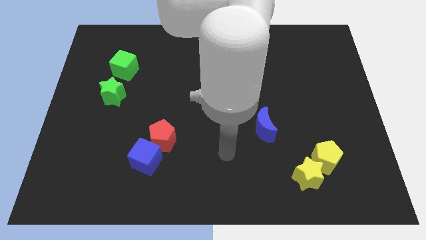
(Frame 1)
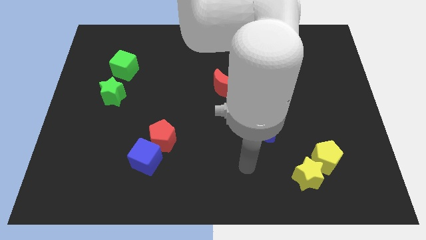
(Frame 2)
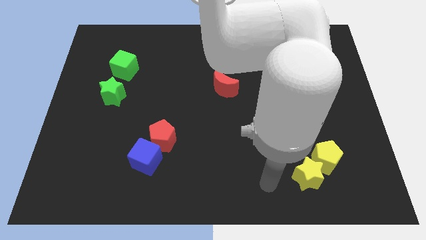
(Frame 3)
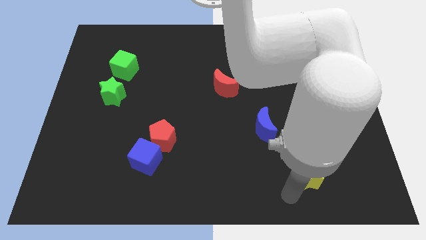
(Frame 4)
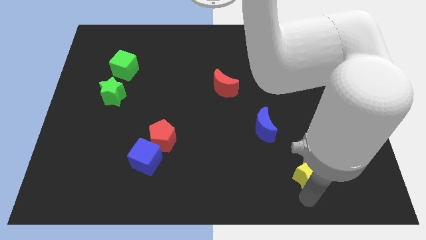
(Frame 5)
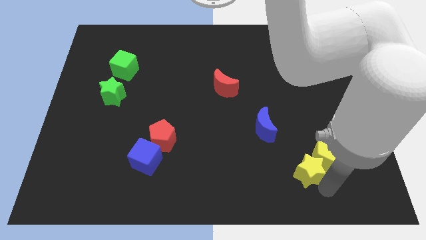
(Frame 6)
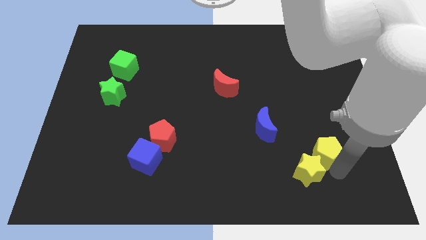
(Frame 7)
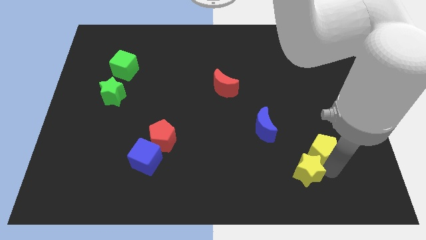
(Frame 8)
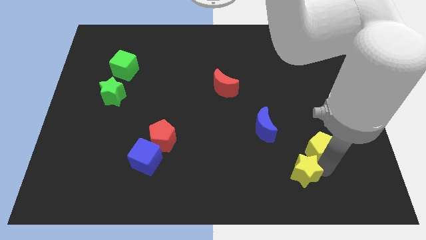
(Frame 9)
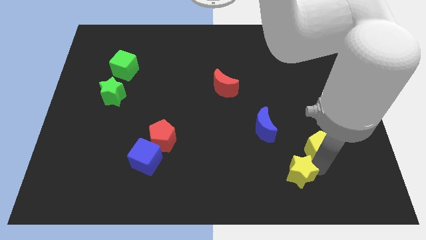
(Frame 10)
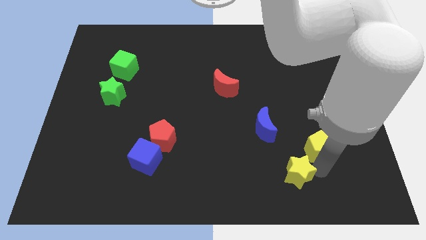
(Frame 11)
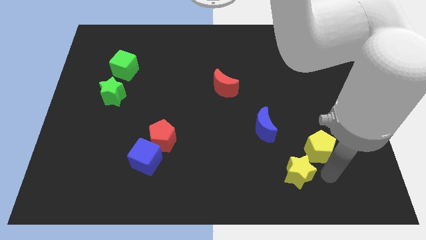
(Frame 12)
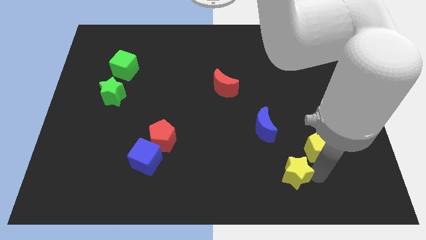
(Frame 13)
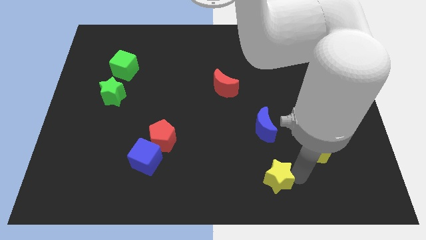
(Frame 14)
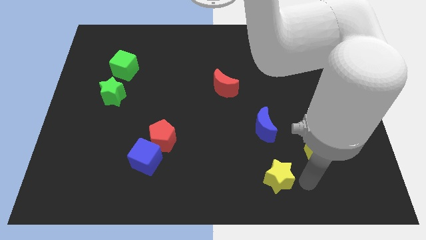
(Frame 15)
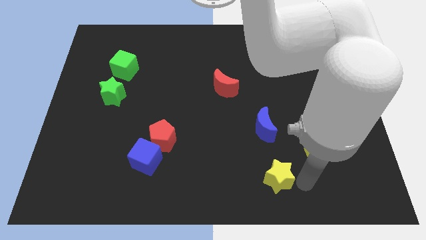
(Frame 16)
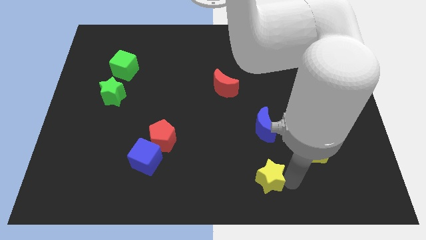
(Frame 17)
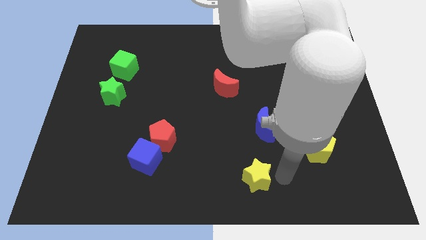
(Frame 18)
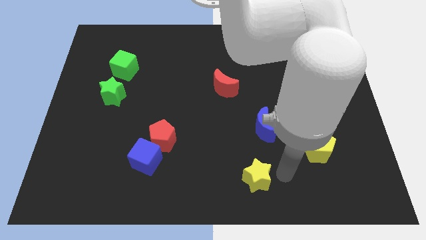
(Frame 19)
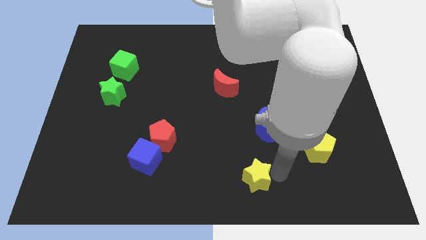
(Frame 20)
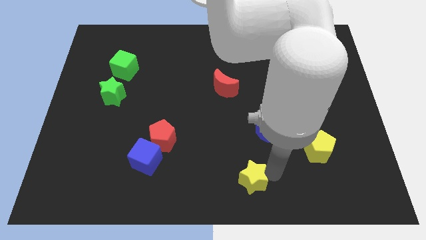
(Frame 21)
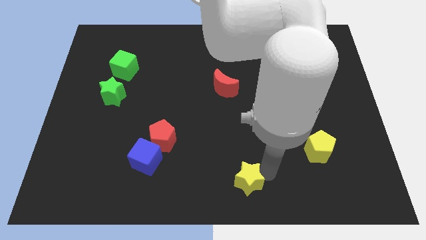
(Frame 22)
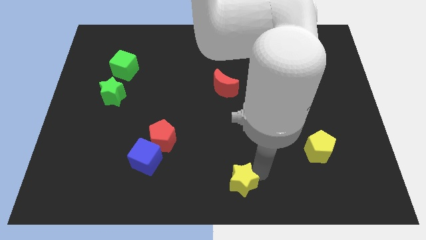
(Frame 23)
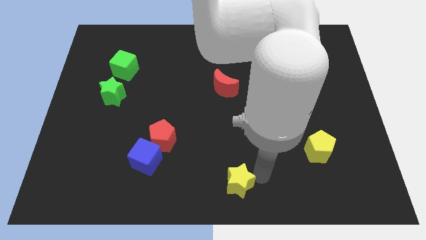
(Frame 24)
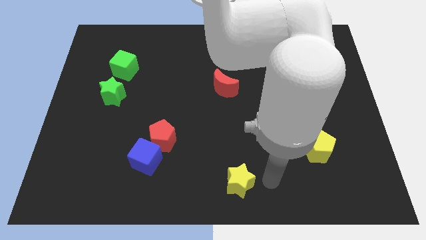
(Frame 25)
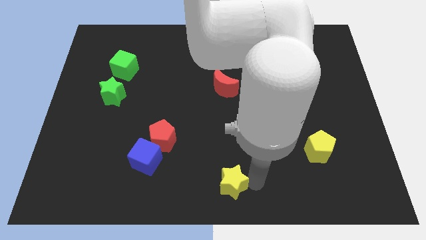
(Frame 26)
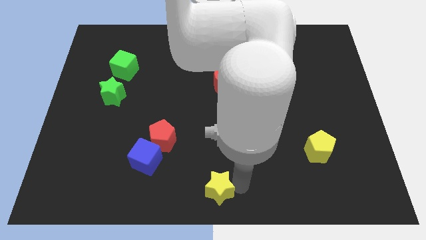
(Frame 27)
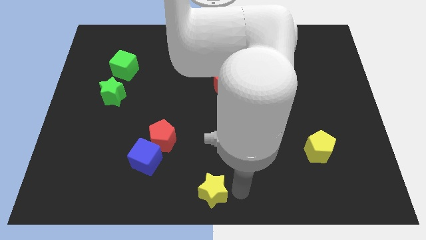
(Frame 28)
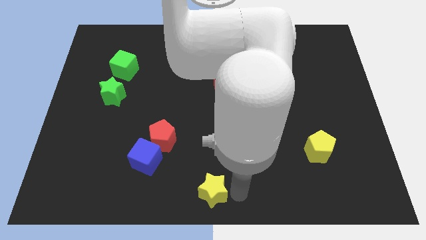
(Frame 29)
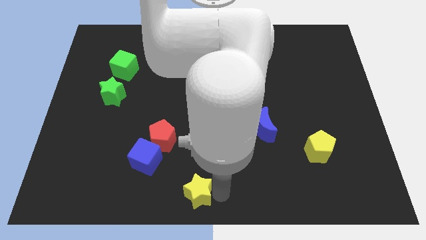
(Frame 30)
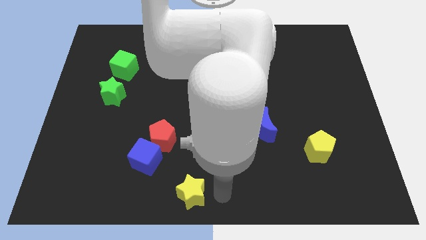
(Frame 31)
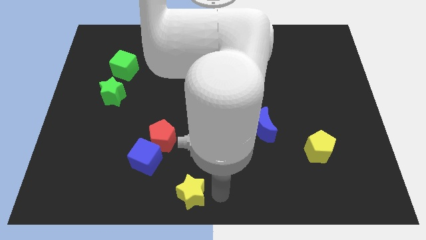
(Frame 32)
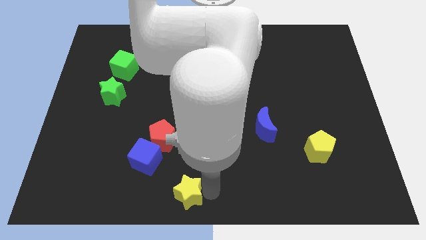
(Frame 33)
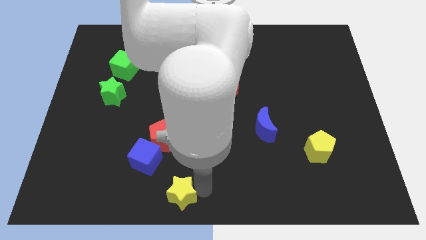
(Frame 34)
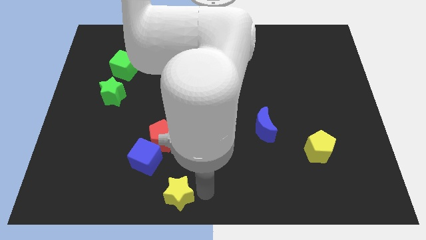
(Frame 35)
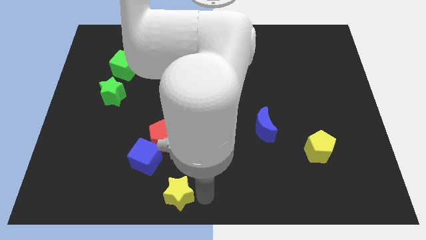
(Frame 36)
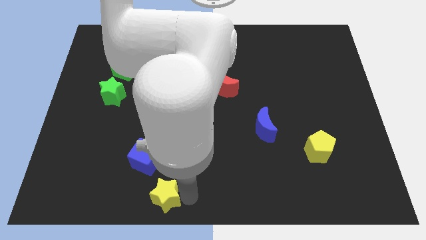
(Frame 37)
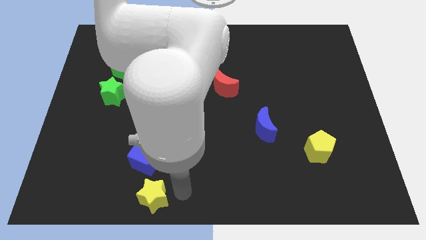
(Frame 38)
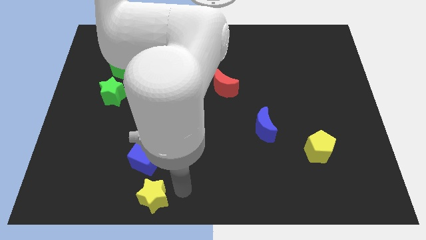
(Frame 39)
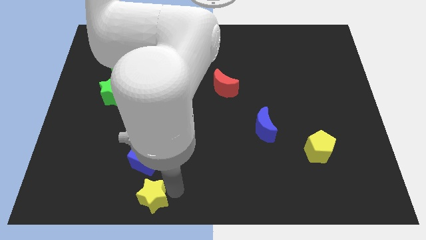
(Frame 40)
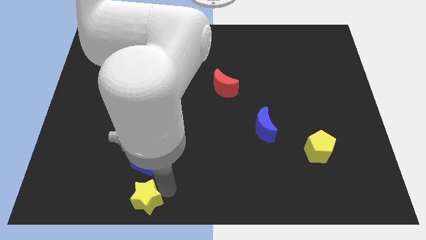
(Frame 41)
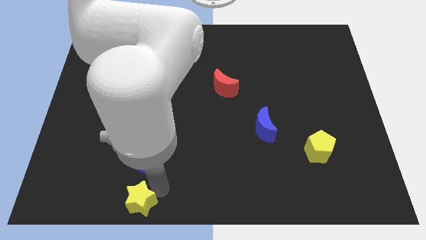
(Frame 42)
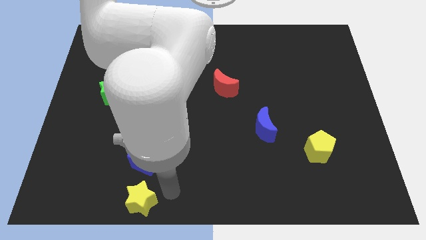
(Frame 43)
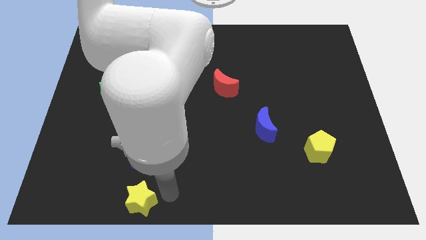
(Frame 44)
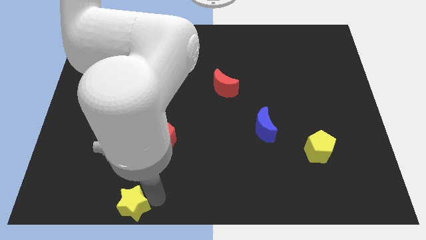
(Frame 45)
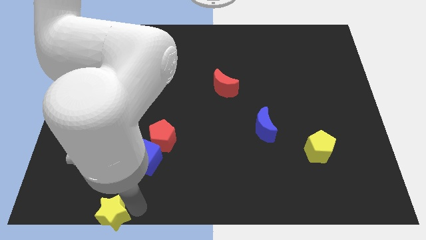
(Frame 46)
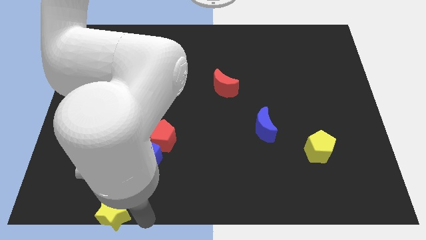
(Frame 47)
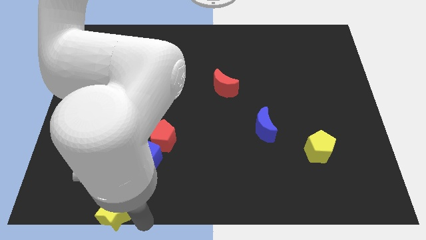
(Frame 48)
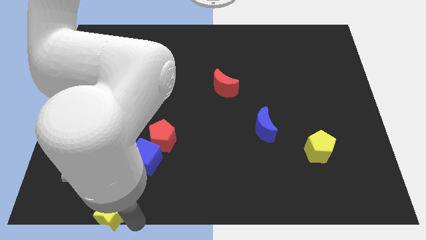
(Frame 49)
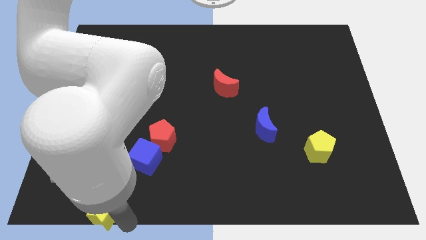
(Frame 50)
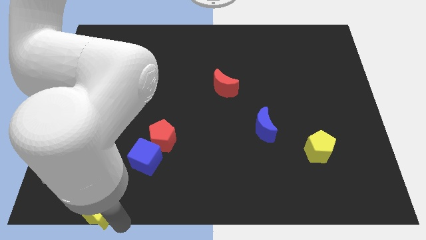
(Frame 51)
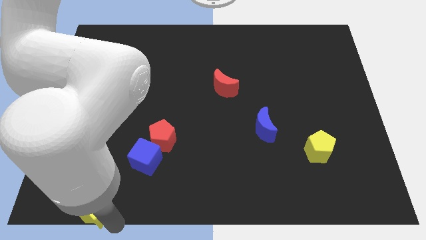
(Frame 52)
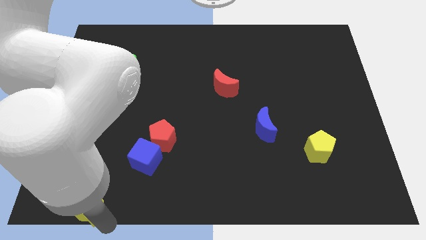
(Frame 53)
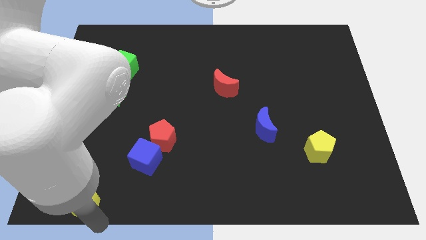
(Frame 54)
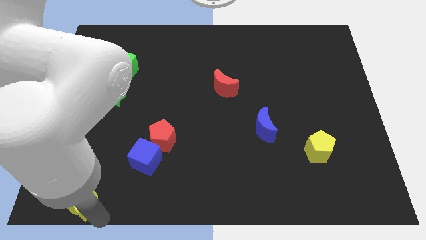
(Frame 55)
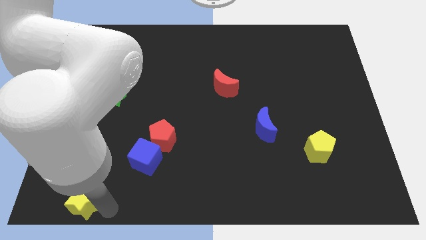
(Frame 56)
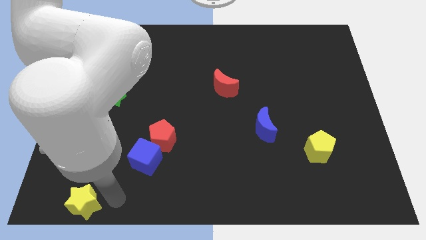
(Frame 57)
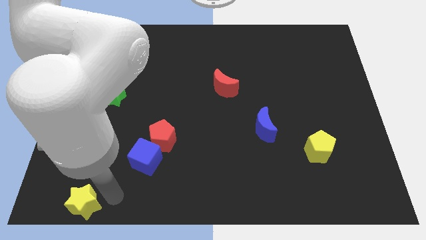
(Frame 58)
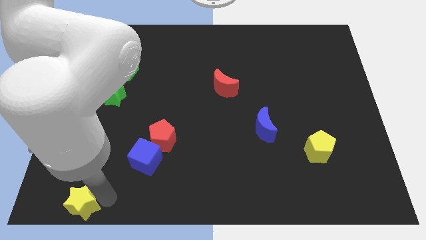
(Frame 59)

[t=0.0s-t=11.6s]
push the yellow star to the bottom left of the board
